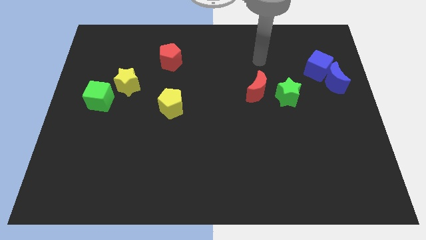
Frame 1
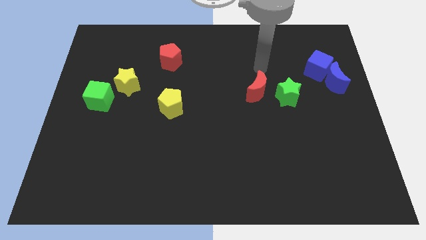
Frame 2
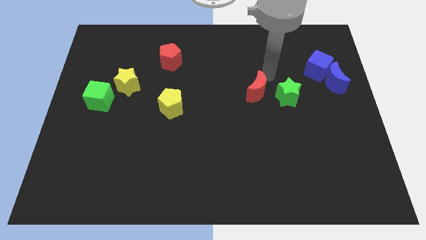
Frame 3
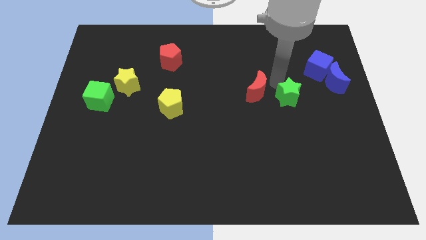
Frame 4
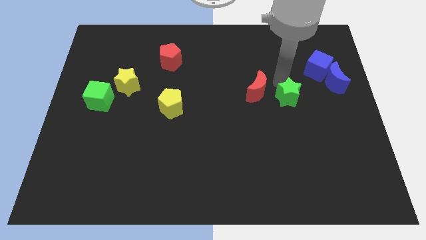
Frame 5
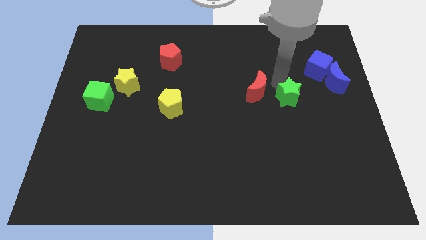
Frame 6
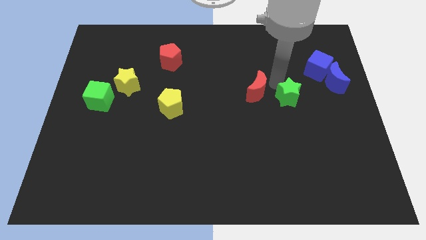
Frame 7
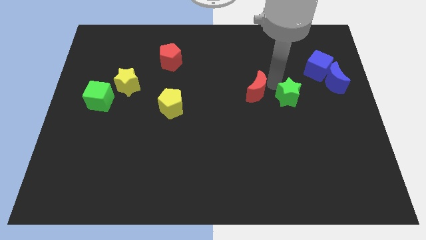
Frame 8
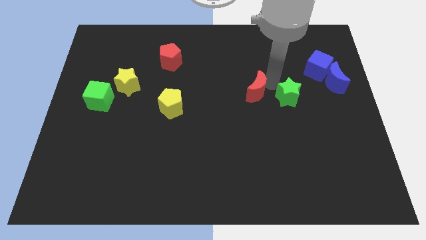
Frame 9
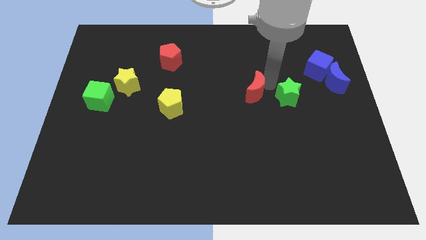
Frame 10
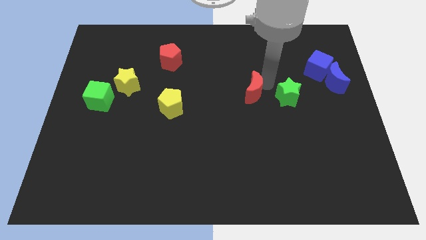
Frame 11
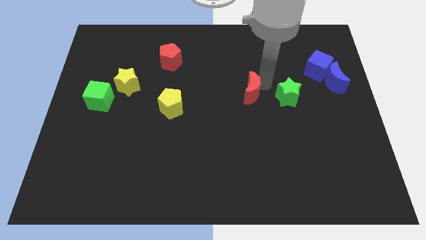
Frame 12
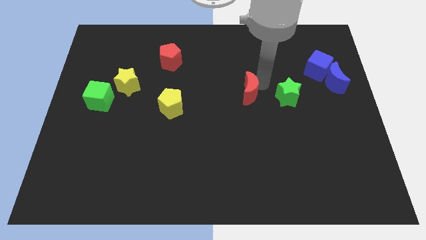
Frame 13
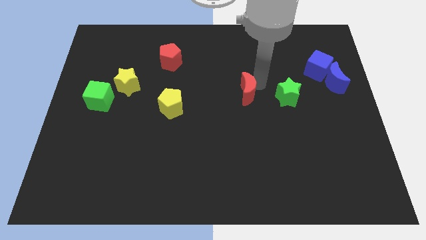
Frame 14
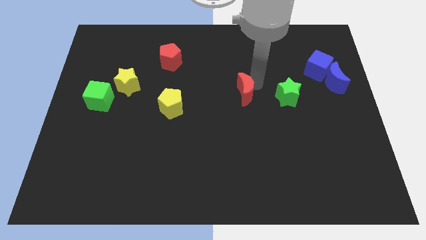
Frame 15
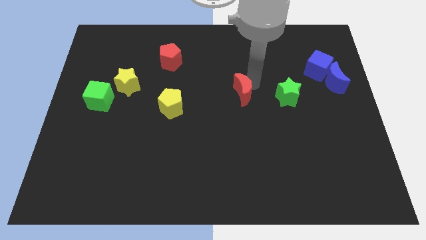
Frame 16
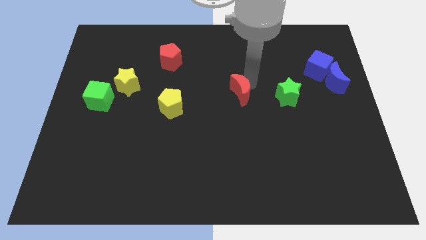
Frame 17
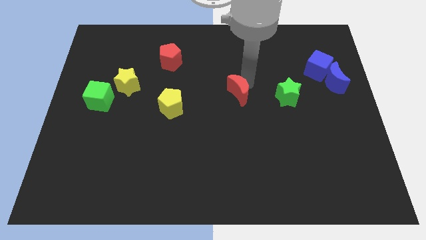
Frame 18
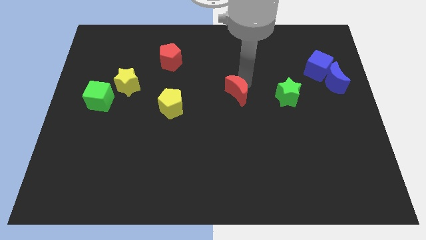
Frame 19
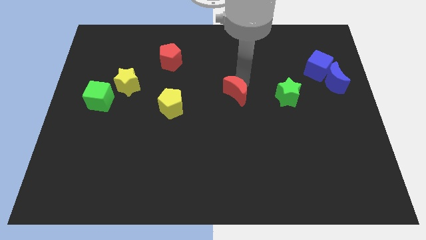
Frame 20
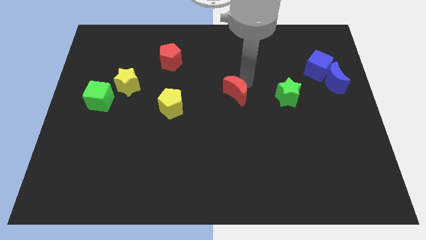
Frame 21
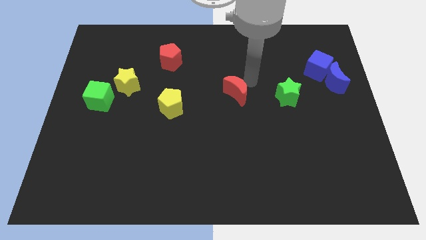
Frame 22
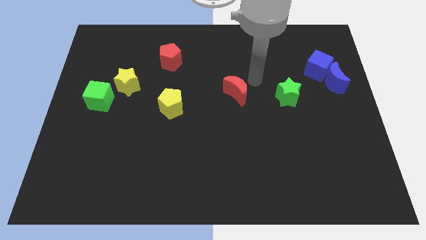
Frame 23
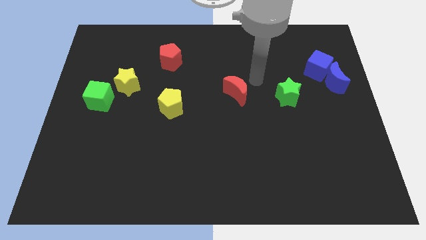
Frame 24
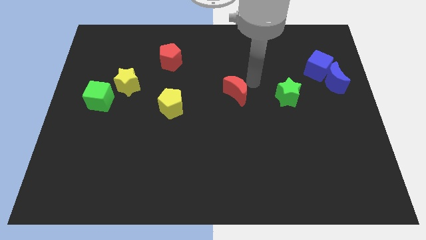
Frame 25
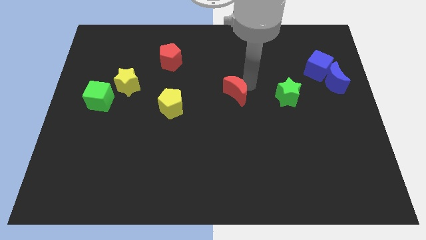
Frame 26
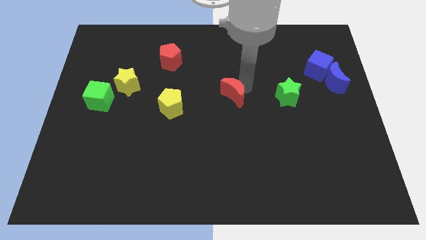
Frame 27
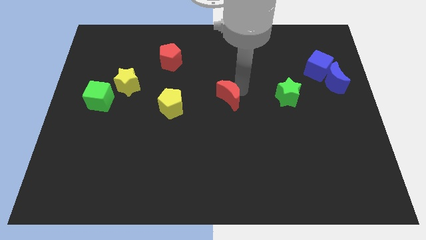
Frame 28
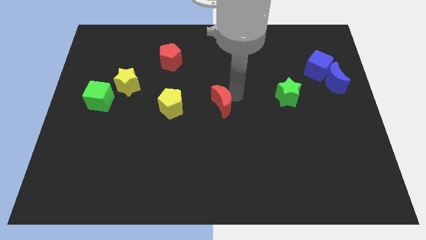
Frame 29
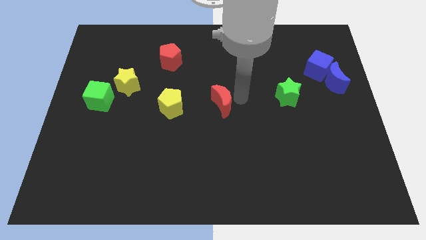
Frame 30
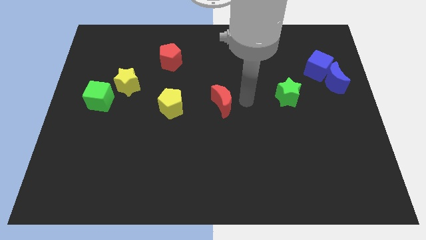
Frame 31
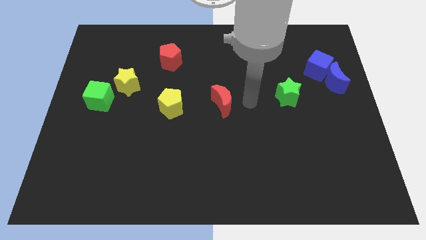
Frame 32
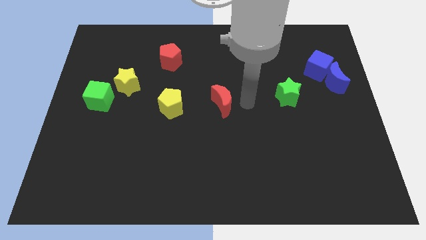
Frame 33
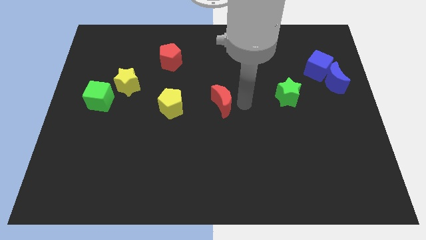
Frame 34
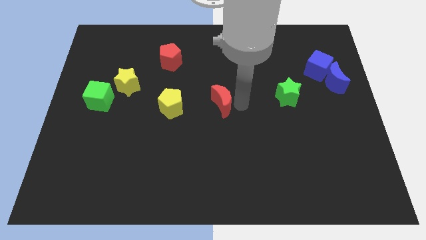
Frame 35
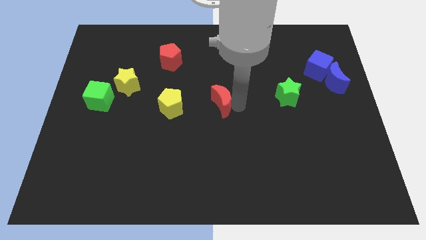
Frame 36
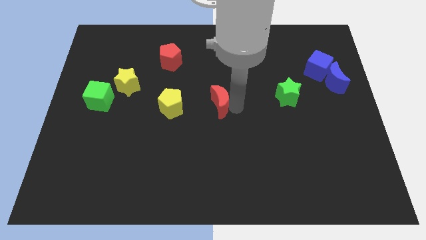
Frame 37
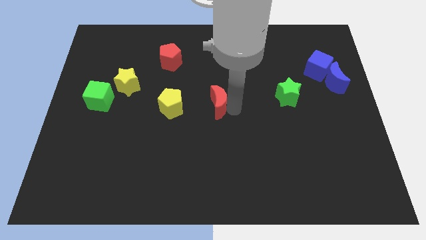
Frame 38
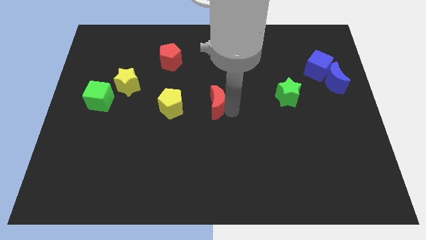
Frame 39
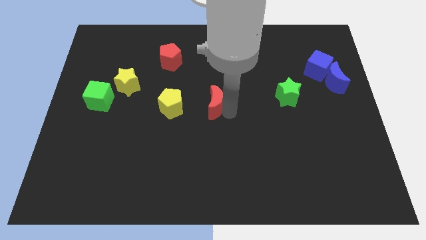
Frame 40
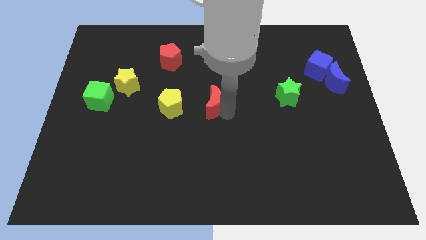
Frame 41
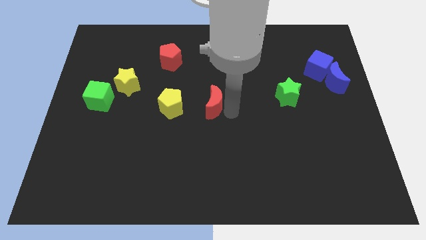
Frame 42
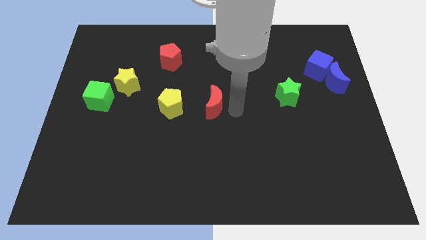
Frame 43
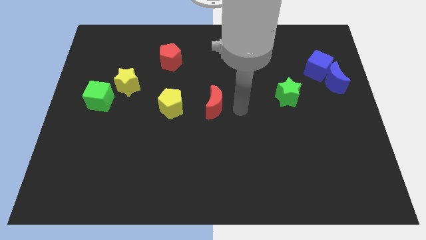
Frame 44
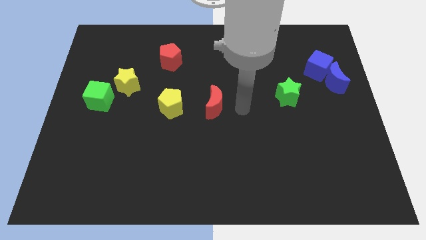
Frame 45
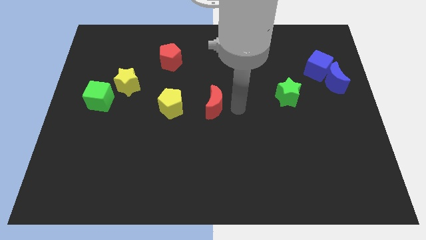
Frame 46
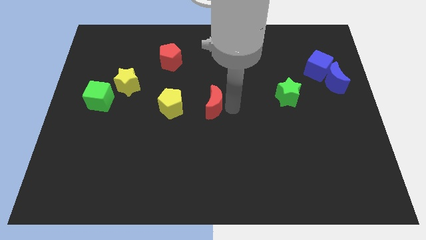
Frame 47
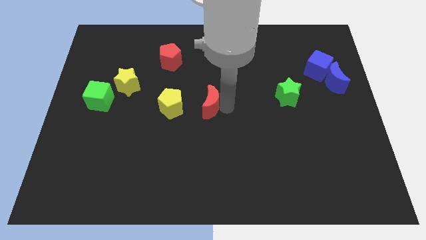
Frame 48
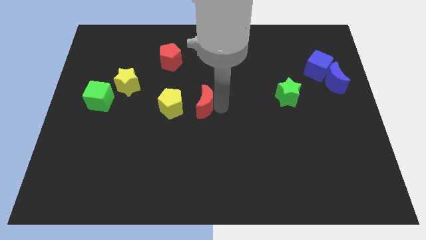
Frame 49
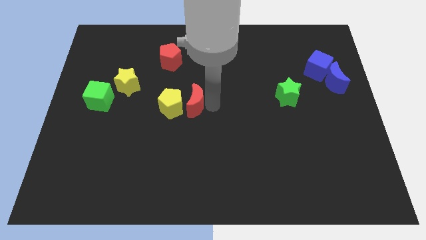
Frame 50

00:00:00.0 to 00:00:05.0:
move the red moon towards the yellow pentagon

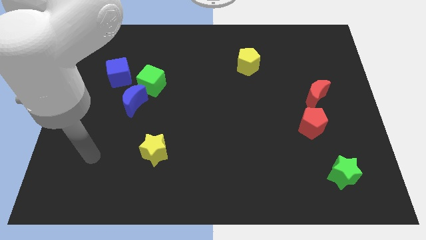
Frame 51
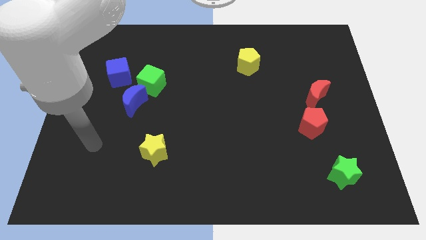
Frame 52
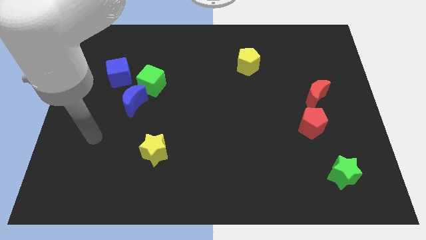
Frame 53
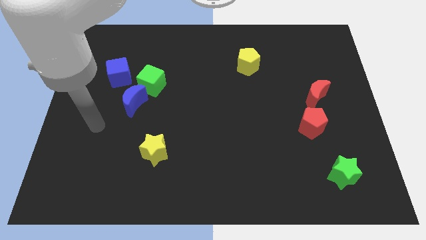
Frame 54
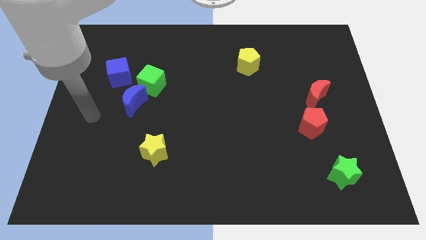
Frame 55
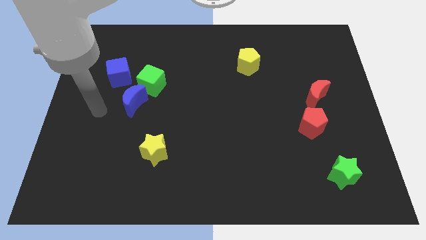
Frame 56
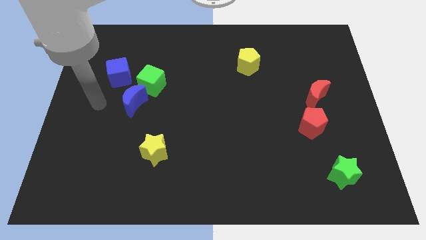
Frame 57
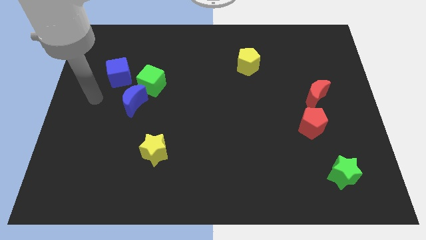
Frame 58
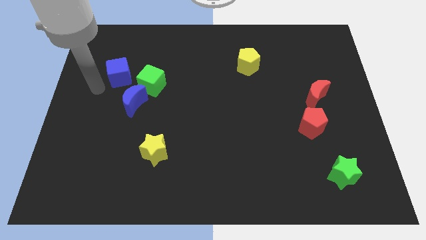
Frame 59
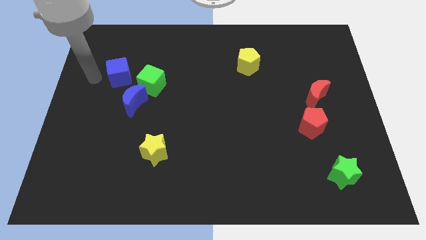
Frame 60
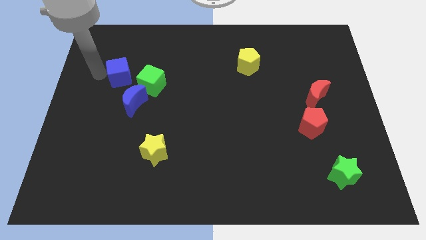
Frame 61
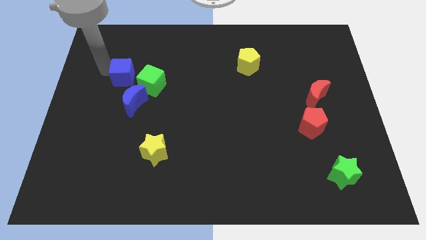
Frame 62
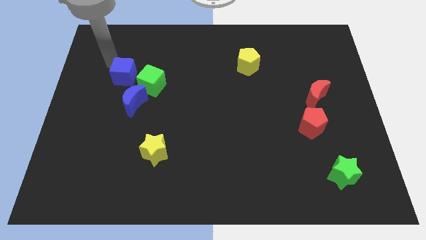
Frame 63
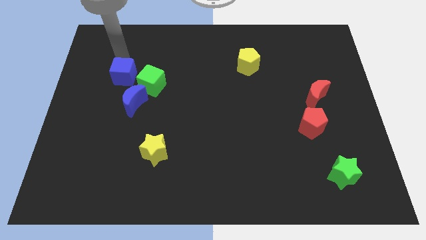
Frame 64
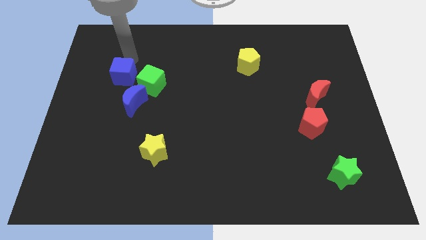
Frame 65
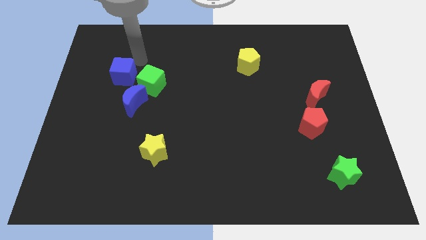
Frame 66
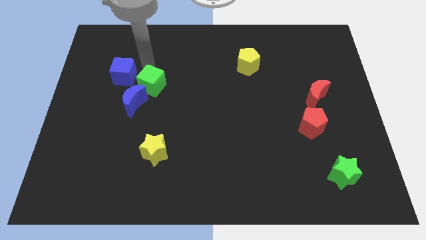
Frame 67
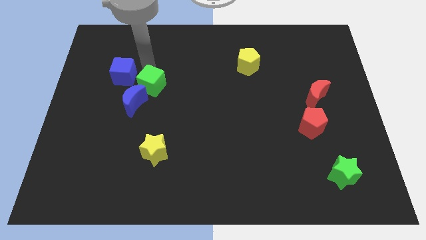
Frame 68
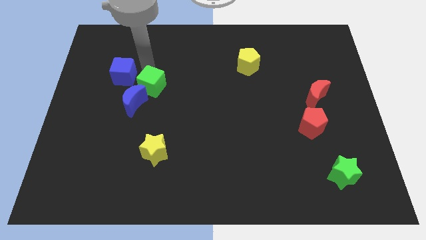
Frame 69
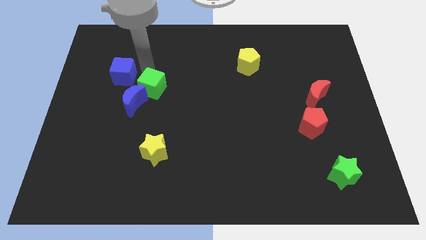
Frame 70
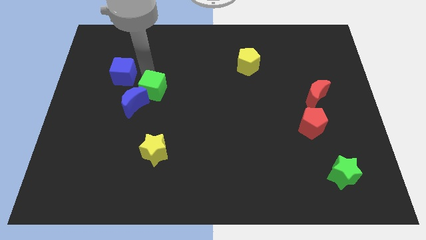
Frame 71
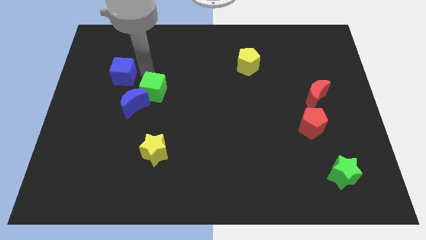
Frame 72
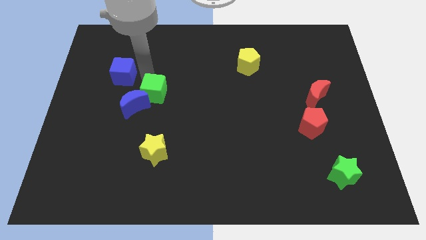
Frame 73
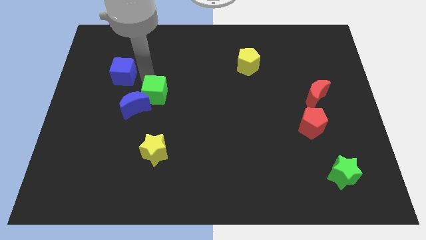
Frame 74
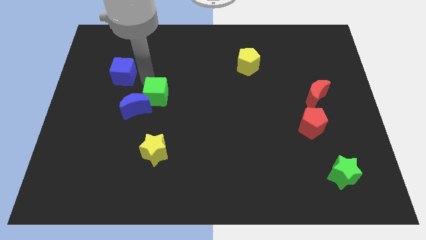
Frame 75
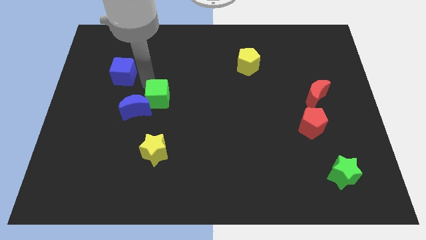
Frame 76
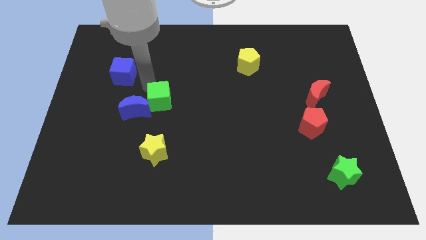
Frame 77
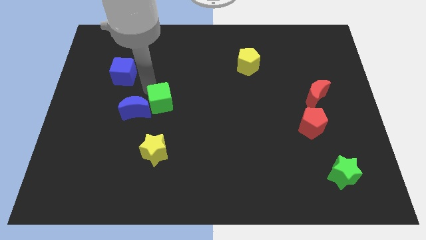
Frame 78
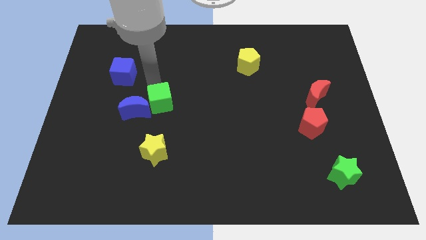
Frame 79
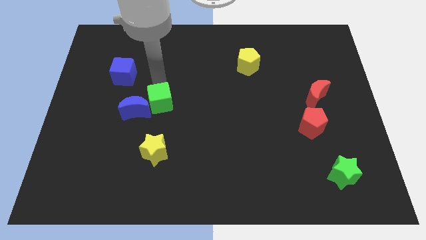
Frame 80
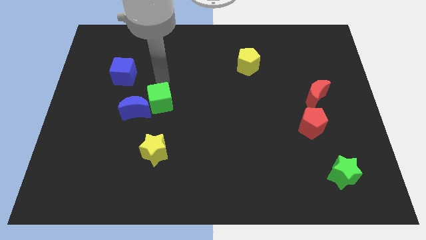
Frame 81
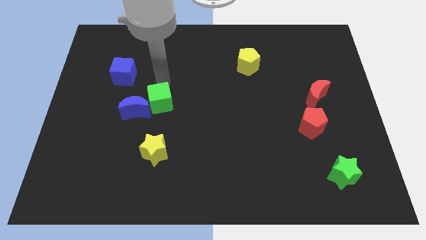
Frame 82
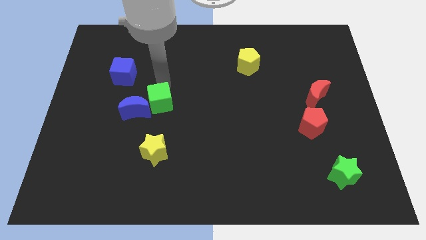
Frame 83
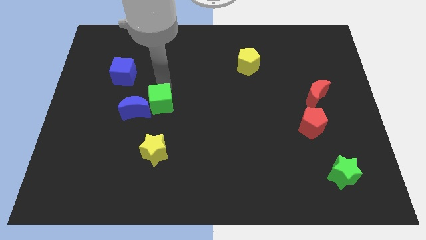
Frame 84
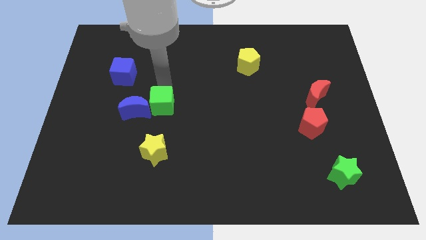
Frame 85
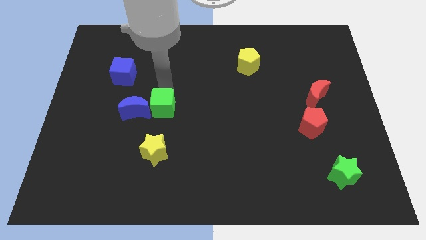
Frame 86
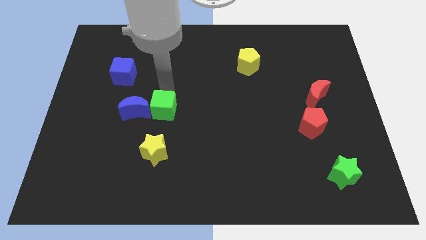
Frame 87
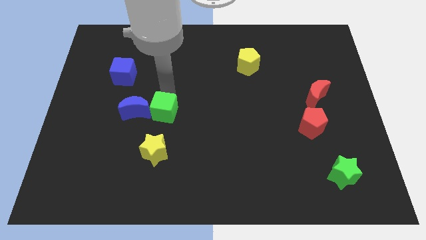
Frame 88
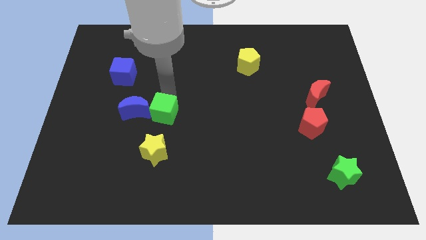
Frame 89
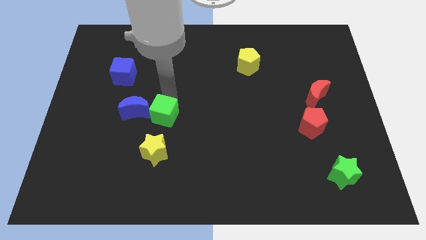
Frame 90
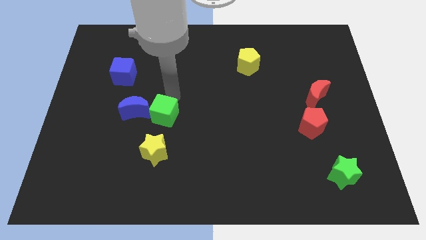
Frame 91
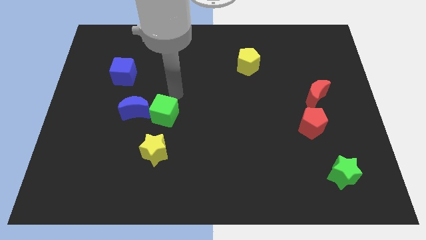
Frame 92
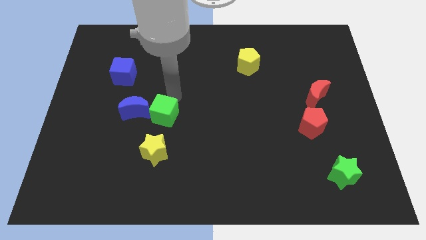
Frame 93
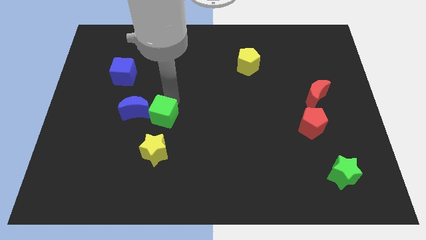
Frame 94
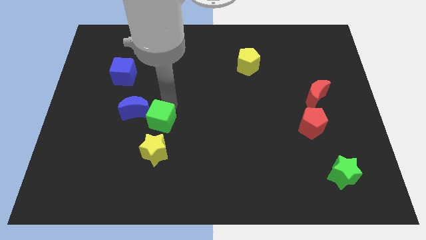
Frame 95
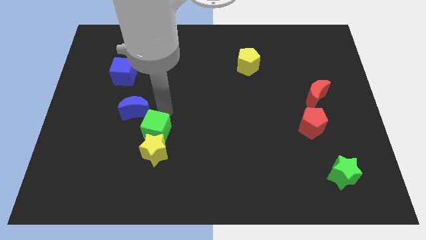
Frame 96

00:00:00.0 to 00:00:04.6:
push the green cube close to the yellow star
